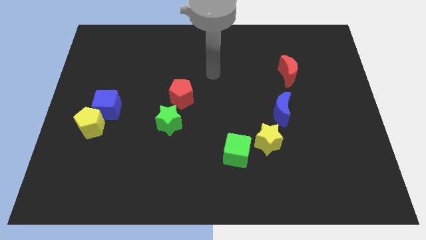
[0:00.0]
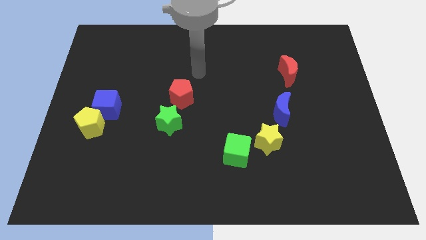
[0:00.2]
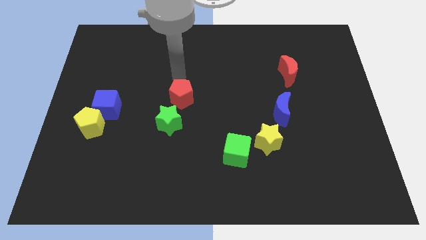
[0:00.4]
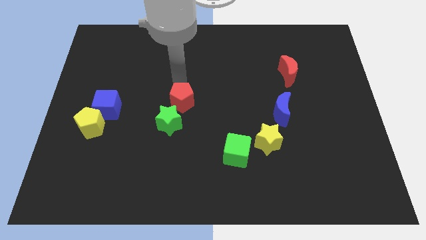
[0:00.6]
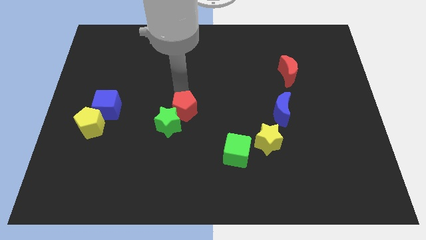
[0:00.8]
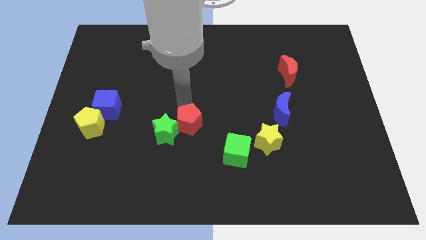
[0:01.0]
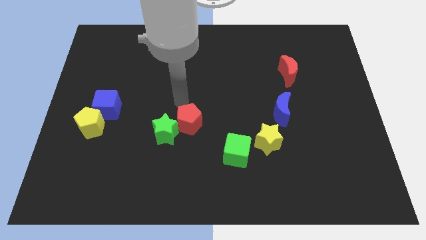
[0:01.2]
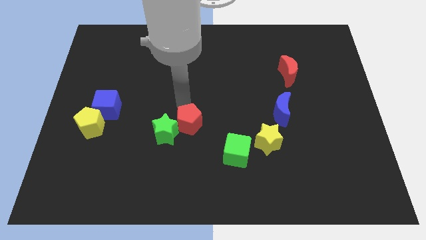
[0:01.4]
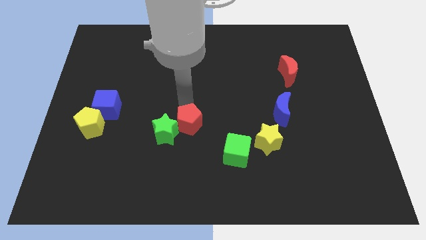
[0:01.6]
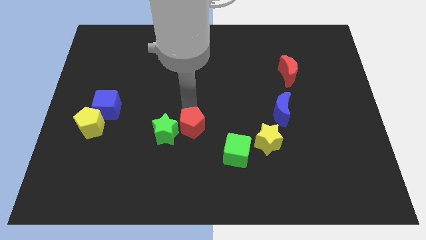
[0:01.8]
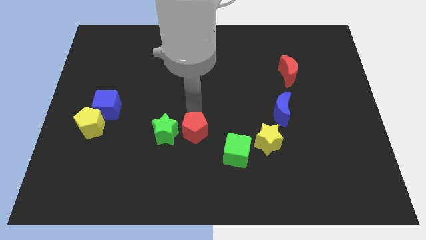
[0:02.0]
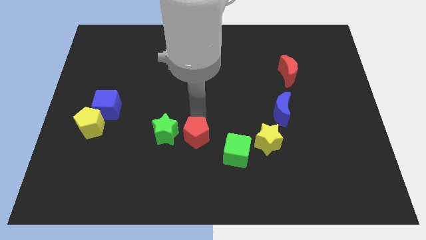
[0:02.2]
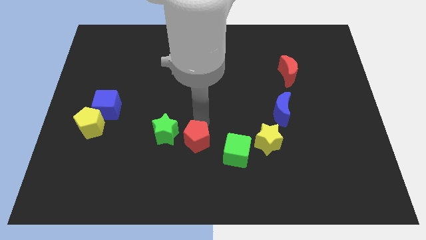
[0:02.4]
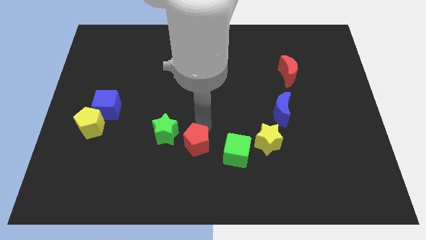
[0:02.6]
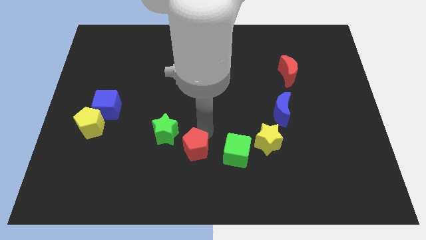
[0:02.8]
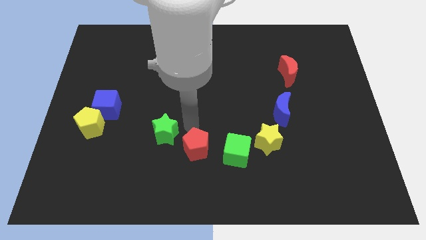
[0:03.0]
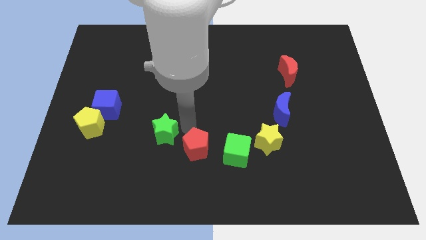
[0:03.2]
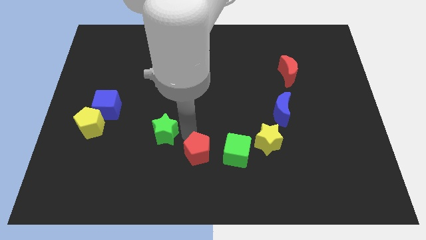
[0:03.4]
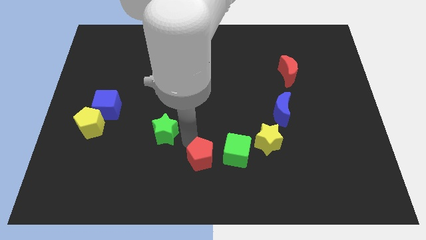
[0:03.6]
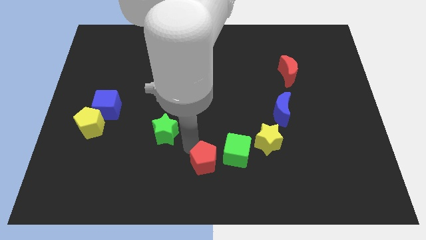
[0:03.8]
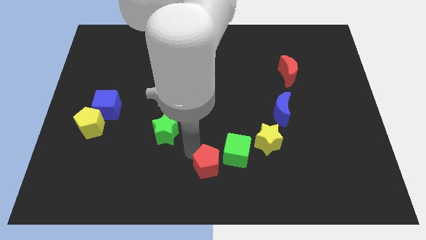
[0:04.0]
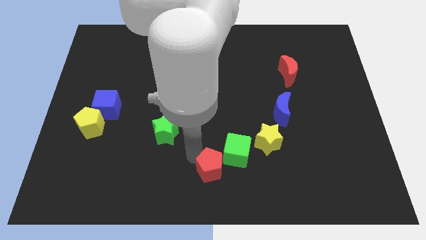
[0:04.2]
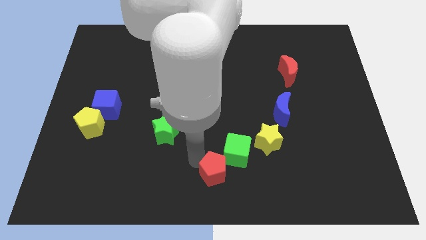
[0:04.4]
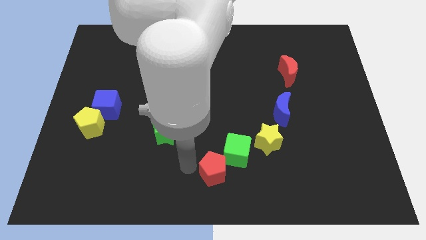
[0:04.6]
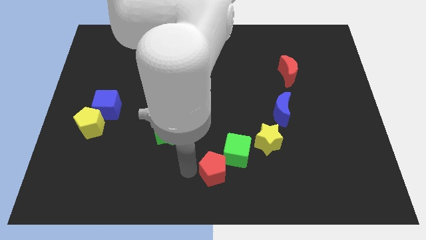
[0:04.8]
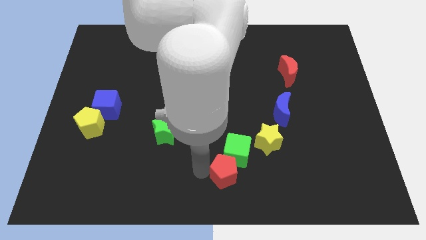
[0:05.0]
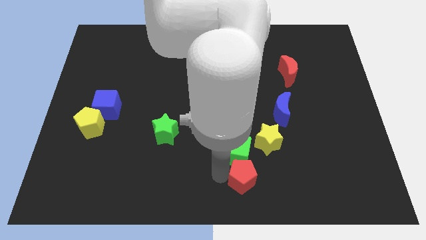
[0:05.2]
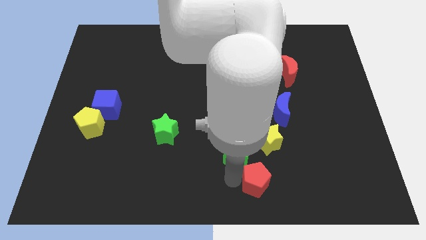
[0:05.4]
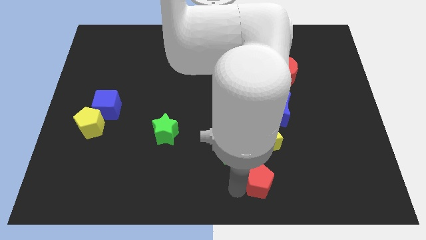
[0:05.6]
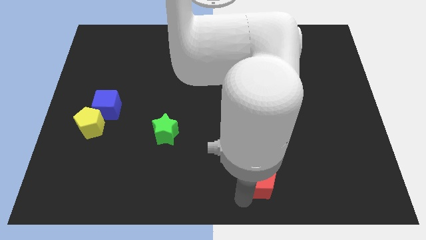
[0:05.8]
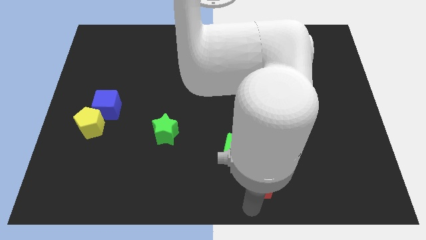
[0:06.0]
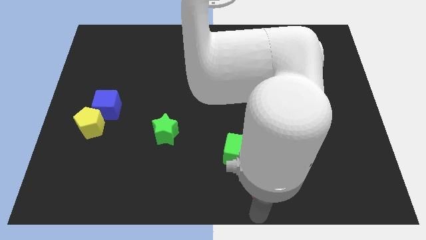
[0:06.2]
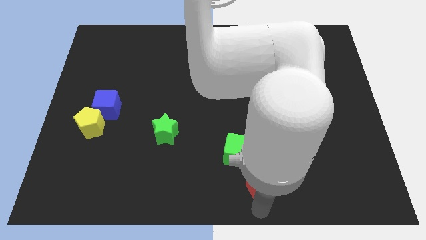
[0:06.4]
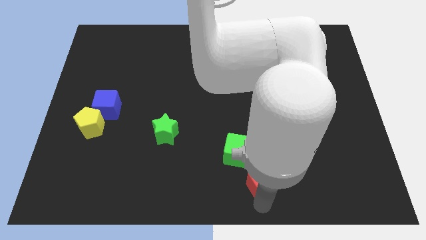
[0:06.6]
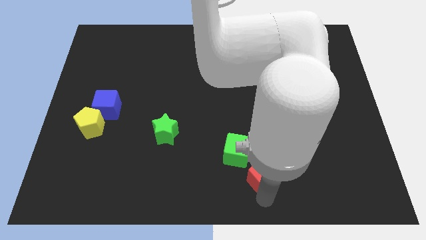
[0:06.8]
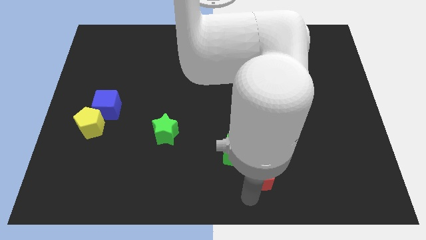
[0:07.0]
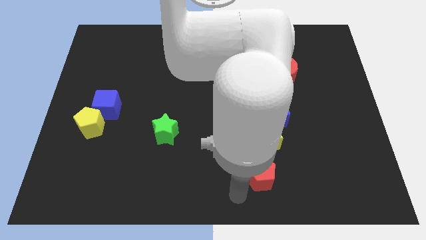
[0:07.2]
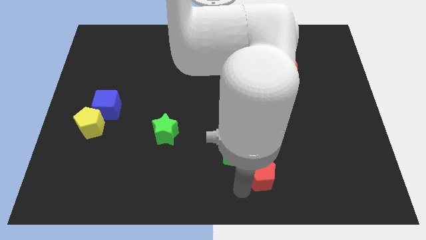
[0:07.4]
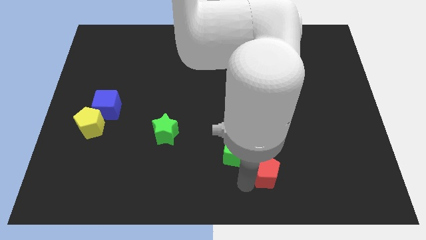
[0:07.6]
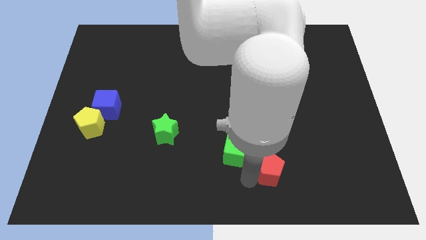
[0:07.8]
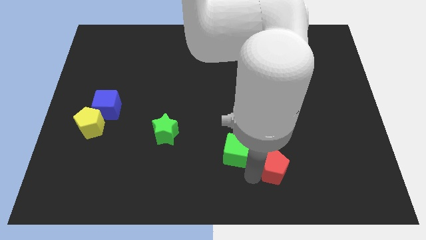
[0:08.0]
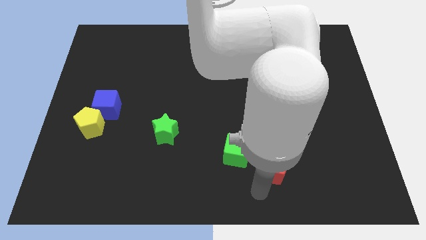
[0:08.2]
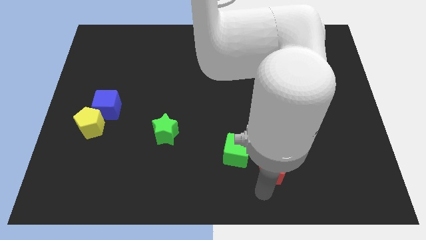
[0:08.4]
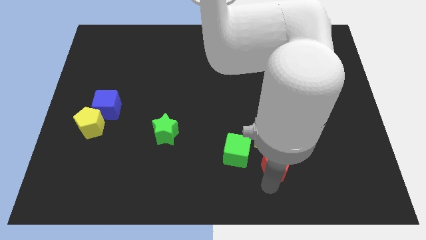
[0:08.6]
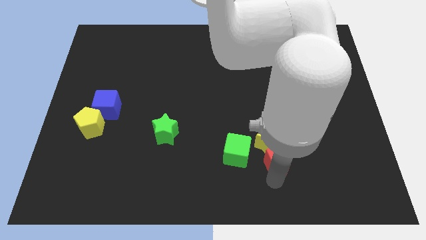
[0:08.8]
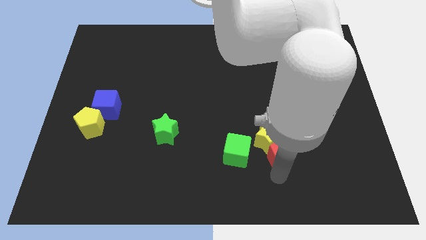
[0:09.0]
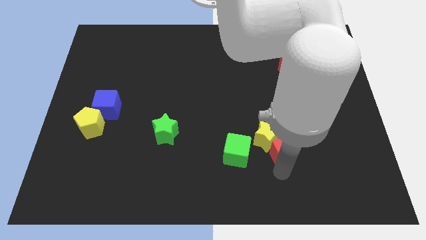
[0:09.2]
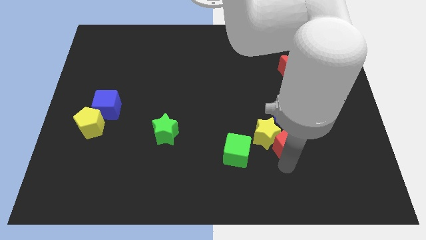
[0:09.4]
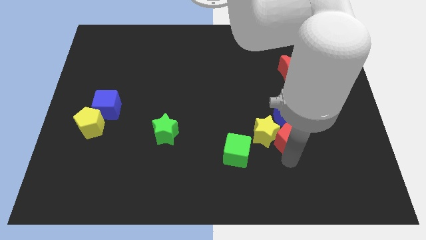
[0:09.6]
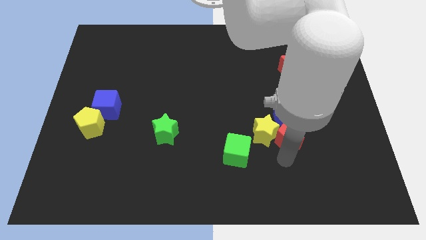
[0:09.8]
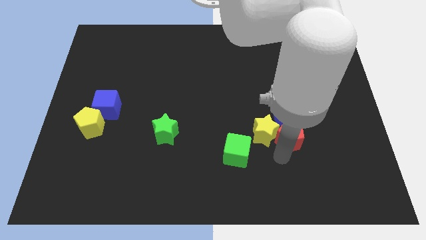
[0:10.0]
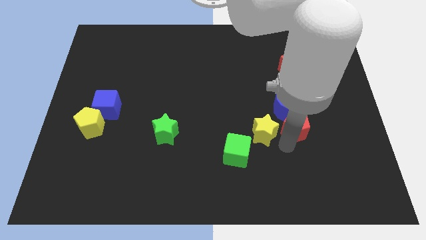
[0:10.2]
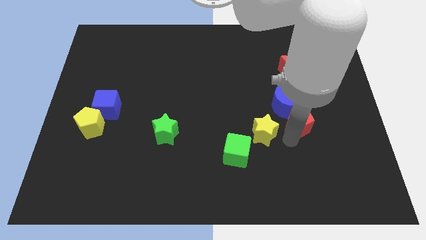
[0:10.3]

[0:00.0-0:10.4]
put the red pentagon below the red moon

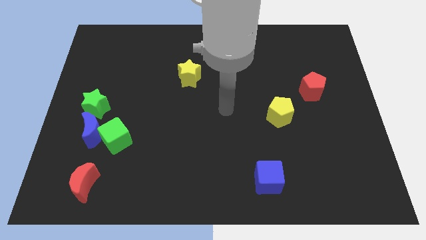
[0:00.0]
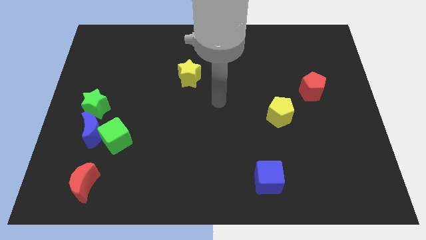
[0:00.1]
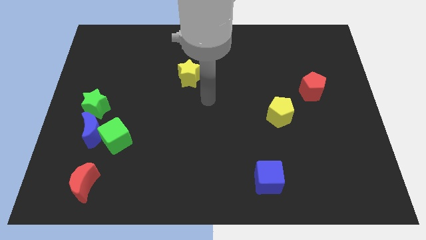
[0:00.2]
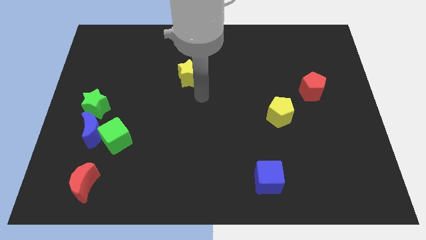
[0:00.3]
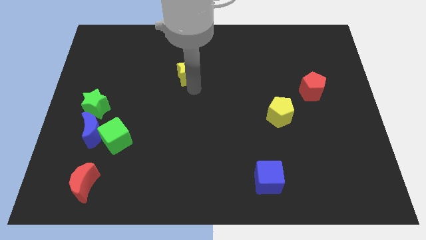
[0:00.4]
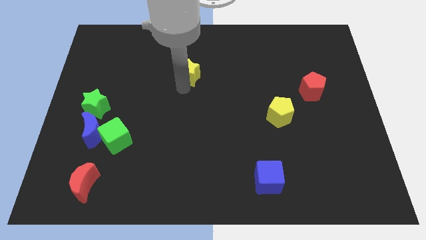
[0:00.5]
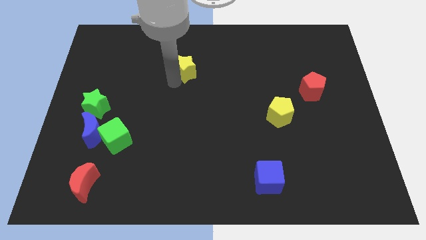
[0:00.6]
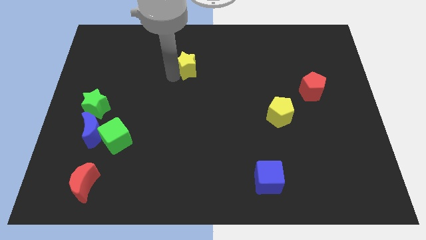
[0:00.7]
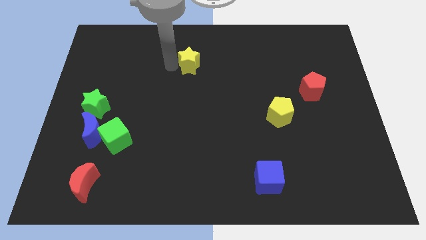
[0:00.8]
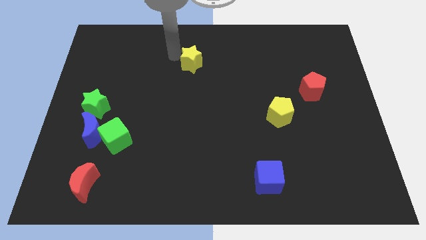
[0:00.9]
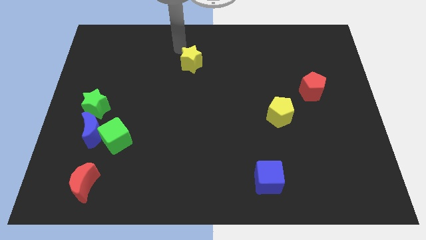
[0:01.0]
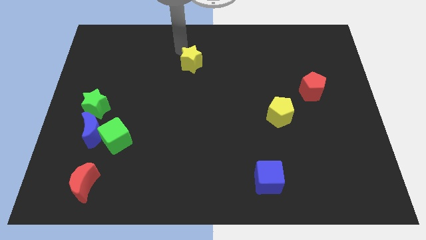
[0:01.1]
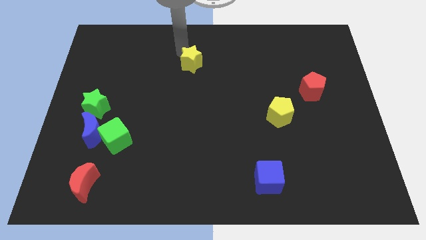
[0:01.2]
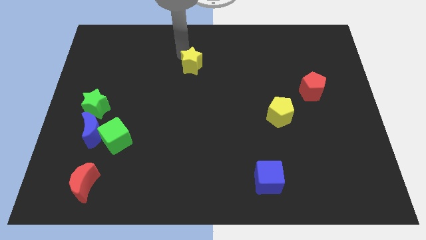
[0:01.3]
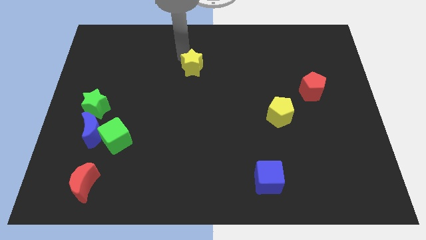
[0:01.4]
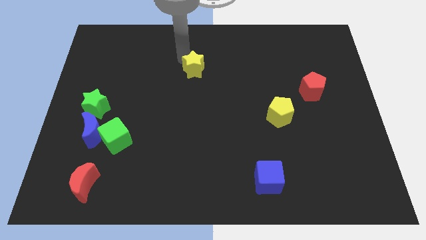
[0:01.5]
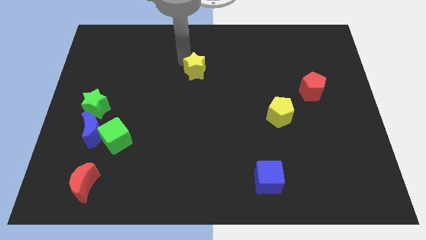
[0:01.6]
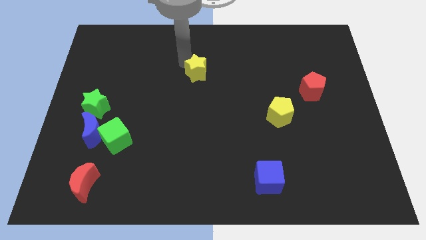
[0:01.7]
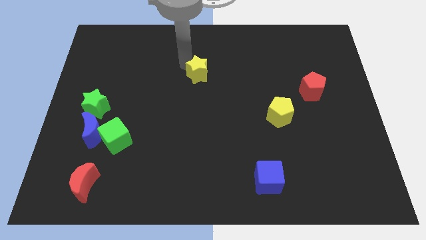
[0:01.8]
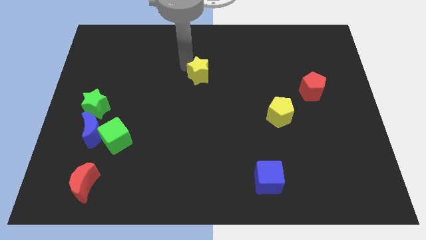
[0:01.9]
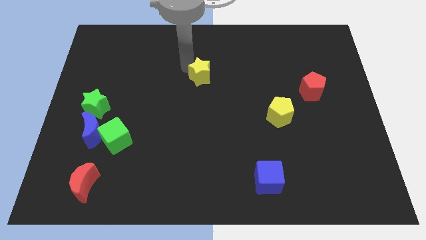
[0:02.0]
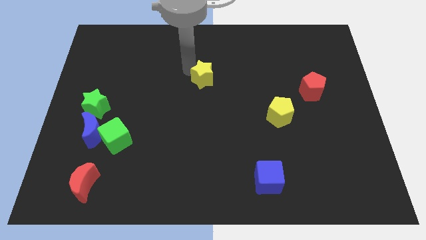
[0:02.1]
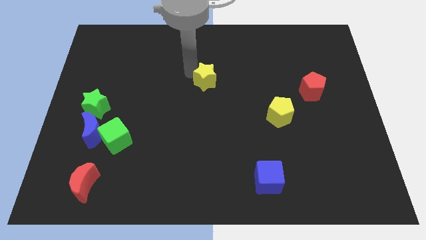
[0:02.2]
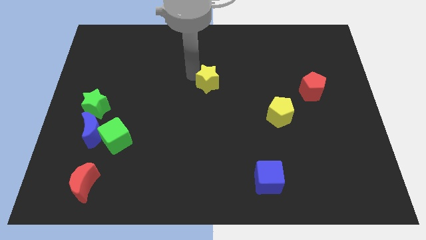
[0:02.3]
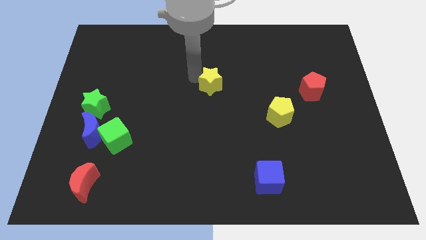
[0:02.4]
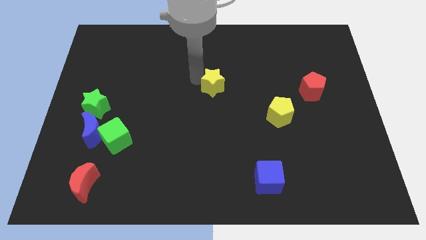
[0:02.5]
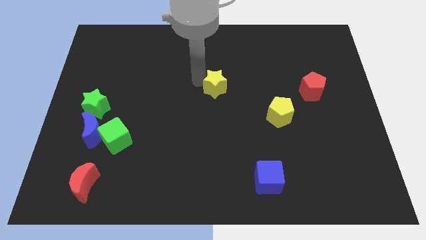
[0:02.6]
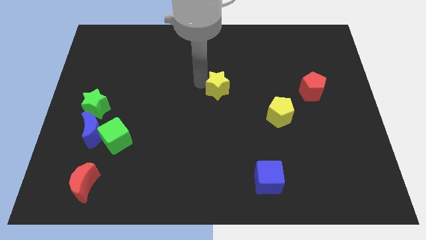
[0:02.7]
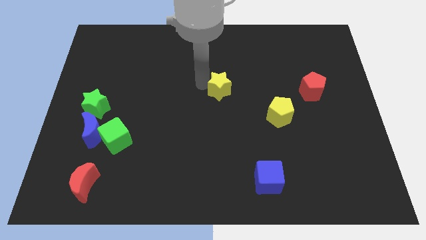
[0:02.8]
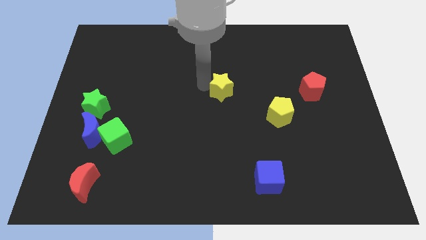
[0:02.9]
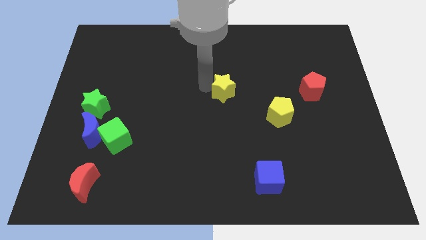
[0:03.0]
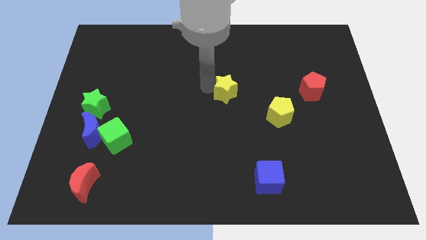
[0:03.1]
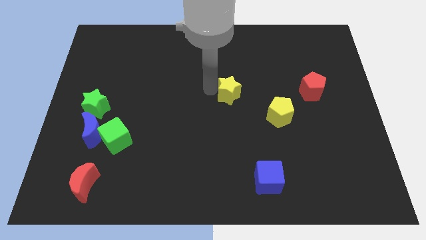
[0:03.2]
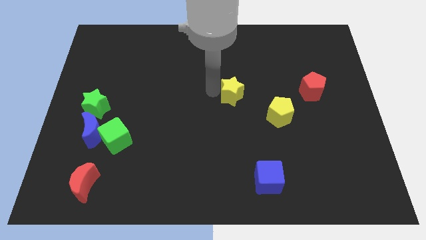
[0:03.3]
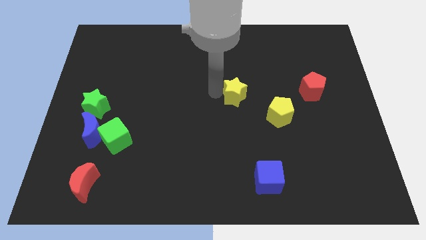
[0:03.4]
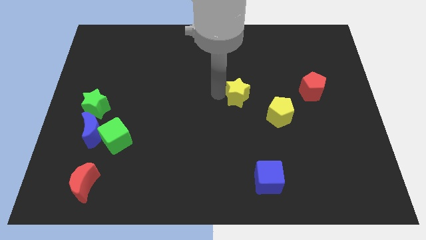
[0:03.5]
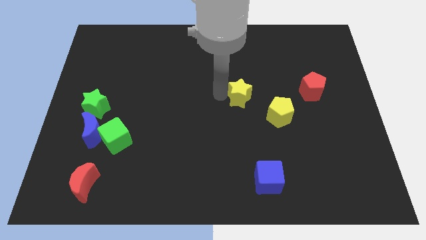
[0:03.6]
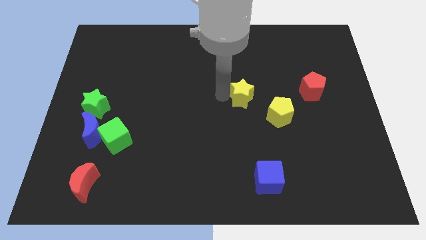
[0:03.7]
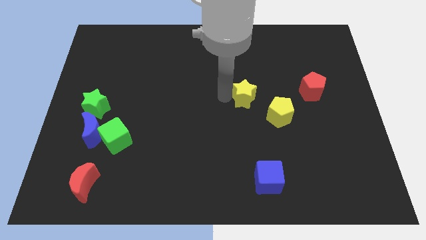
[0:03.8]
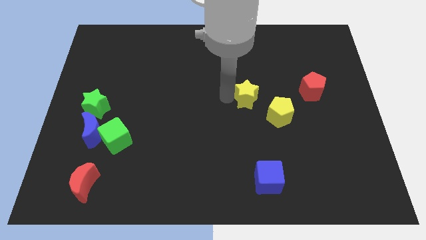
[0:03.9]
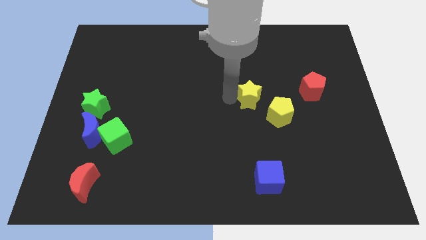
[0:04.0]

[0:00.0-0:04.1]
push the yellow star to the left of the red pentagon
